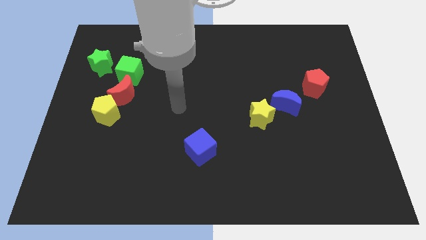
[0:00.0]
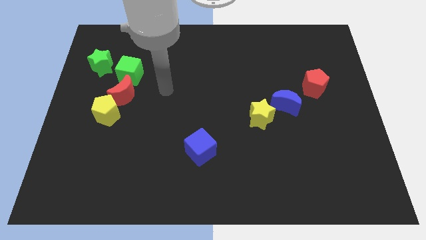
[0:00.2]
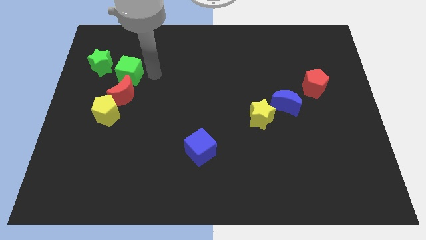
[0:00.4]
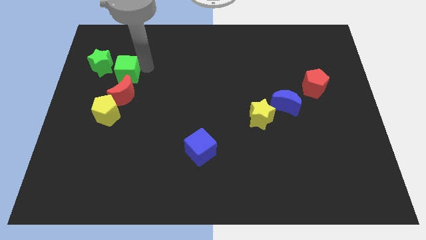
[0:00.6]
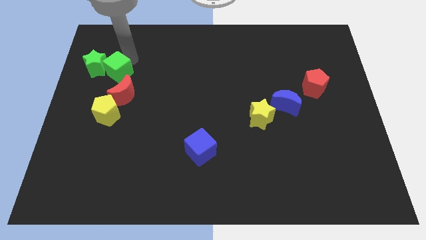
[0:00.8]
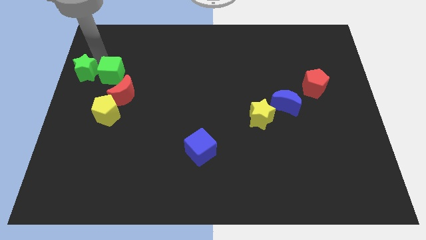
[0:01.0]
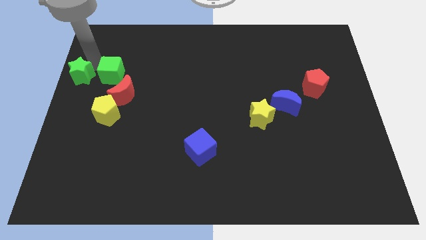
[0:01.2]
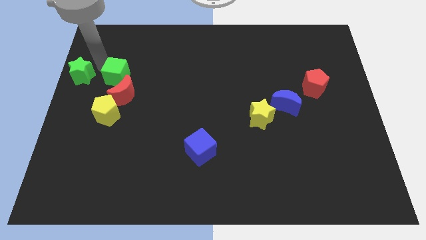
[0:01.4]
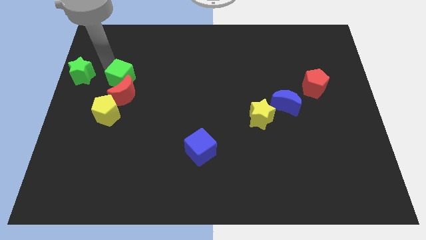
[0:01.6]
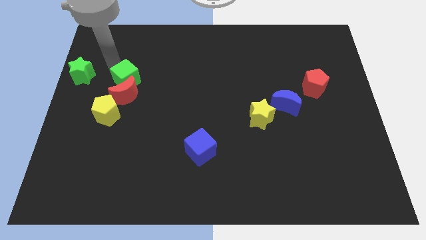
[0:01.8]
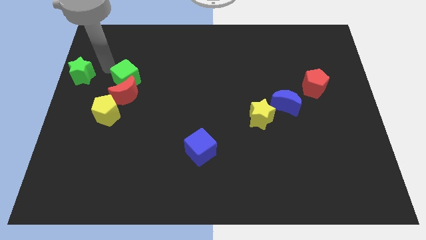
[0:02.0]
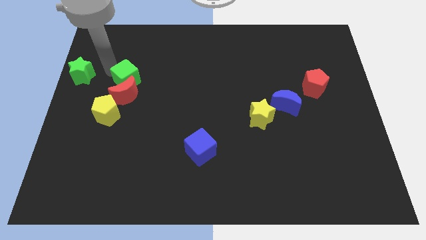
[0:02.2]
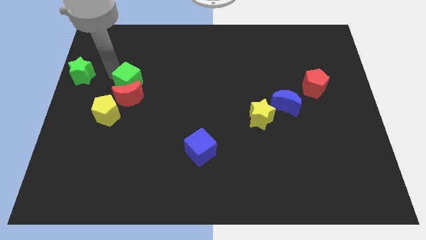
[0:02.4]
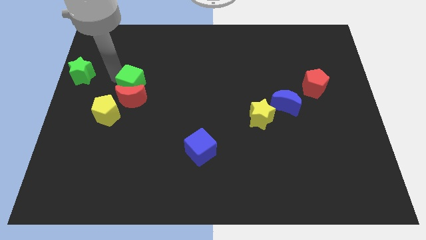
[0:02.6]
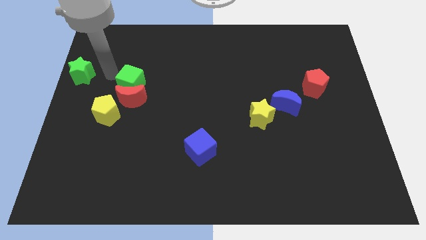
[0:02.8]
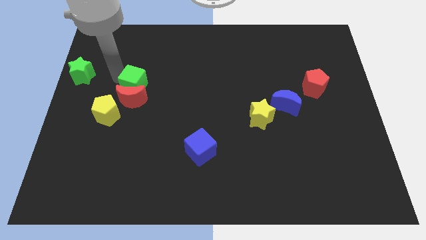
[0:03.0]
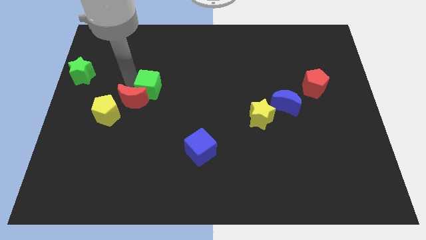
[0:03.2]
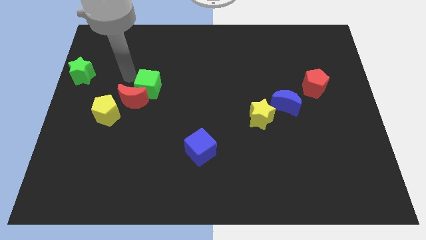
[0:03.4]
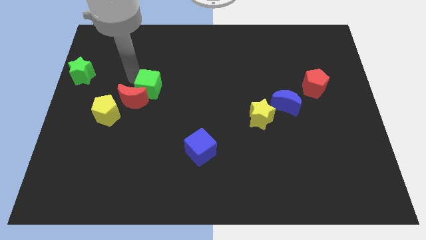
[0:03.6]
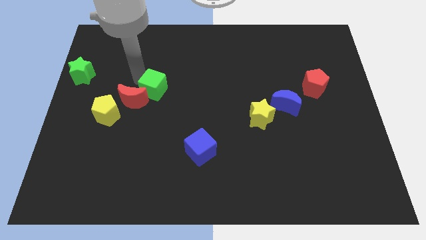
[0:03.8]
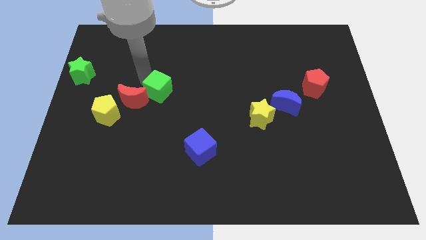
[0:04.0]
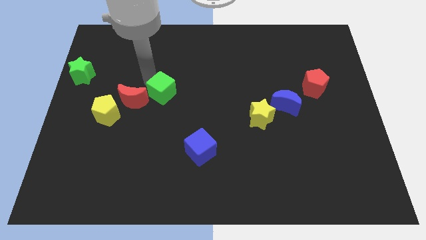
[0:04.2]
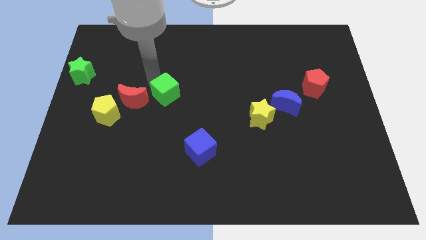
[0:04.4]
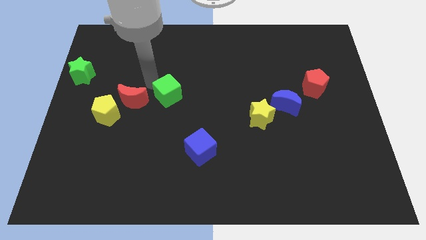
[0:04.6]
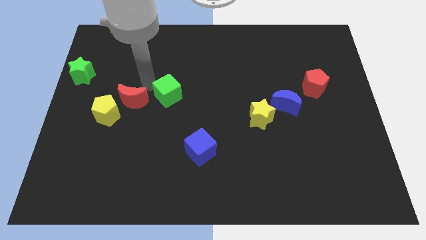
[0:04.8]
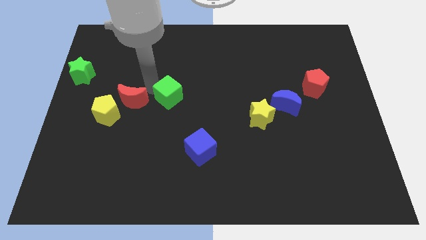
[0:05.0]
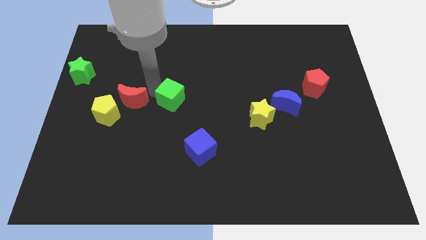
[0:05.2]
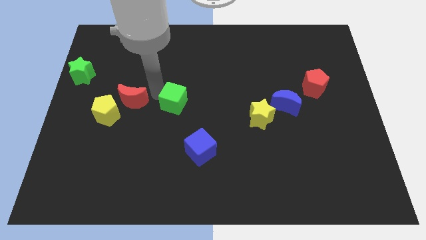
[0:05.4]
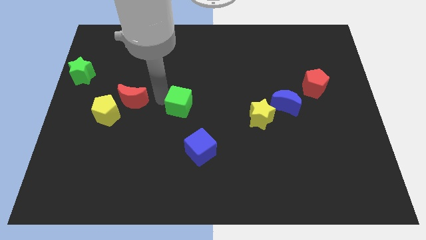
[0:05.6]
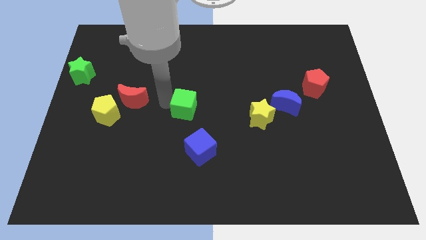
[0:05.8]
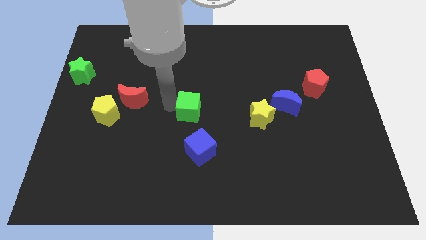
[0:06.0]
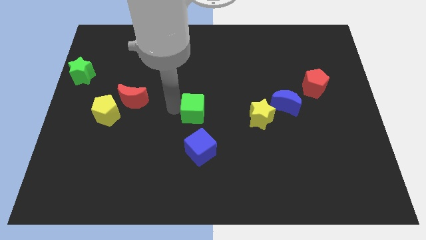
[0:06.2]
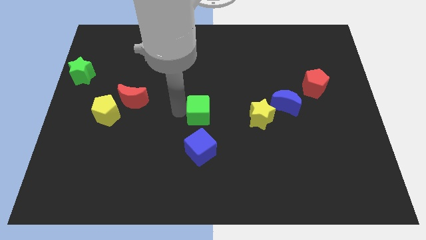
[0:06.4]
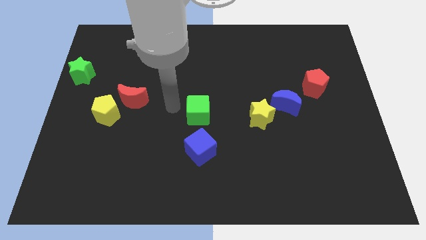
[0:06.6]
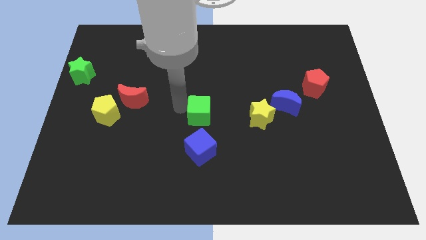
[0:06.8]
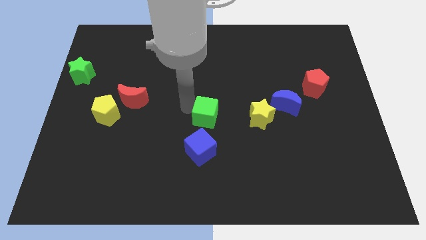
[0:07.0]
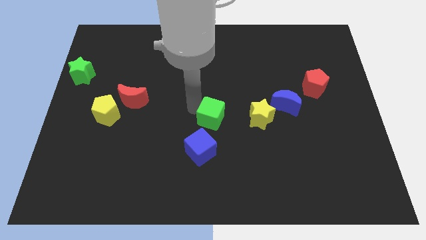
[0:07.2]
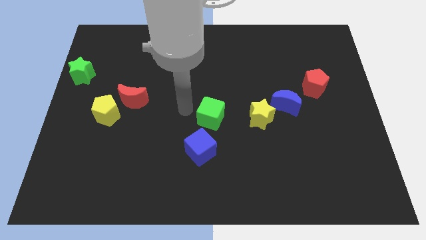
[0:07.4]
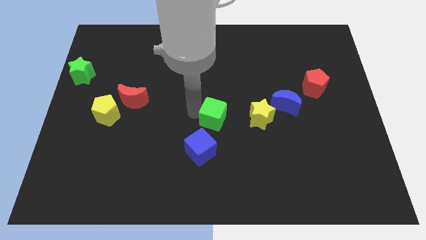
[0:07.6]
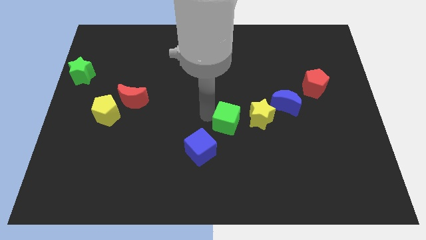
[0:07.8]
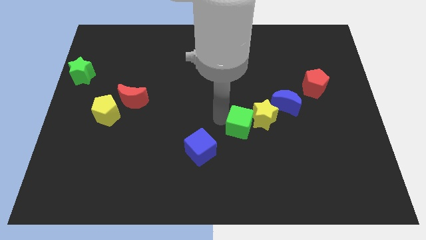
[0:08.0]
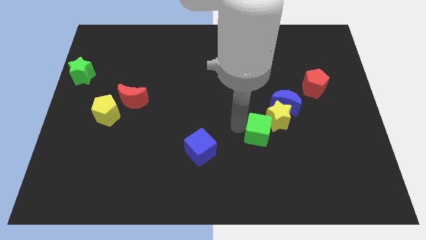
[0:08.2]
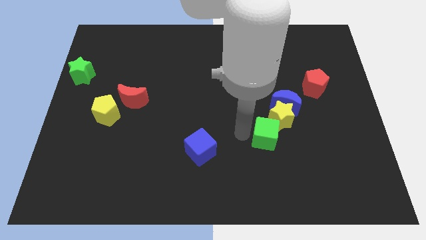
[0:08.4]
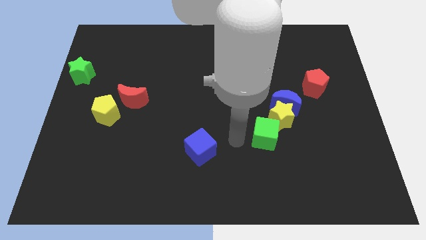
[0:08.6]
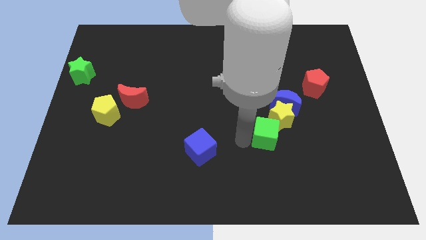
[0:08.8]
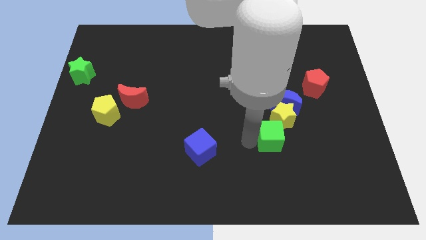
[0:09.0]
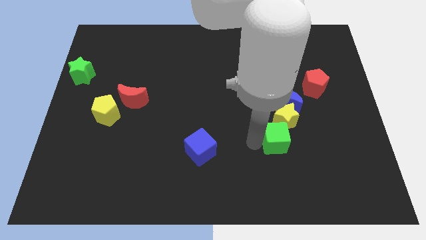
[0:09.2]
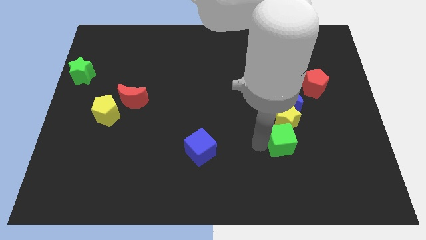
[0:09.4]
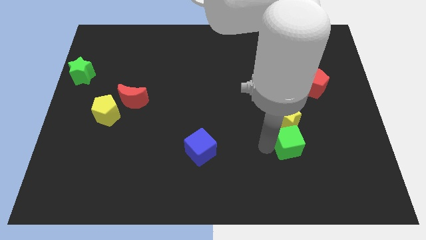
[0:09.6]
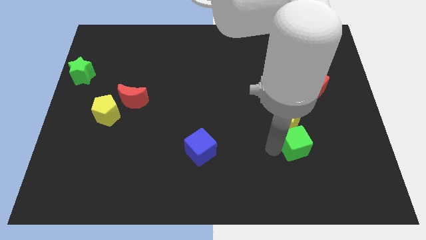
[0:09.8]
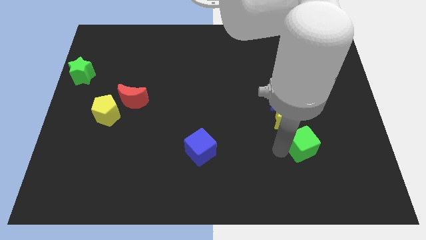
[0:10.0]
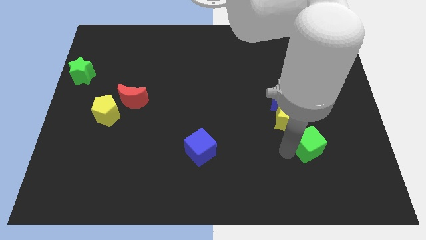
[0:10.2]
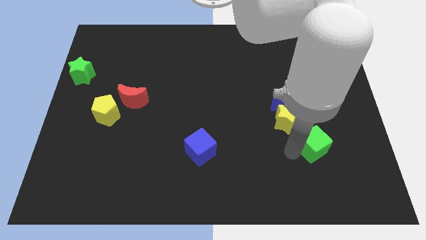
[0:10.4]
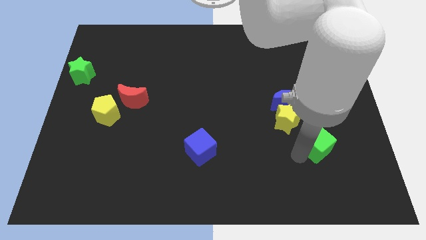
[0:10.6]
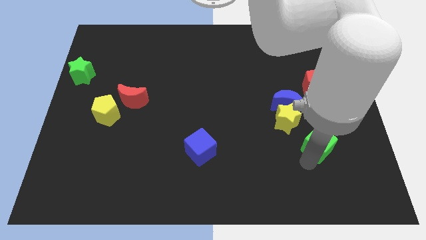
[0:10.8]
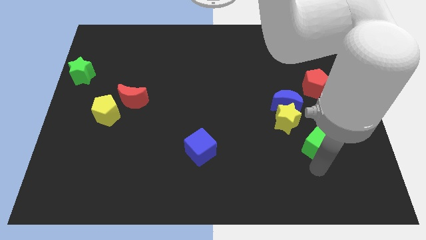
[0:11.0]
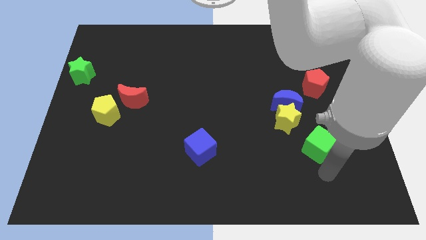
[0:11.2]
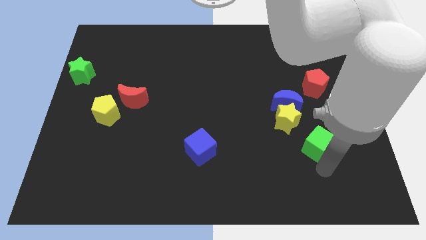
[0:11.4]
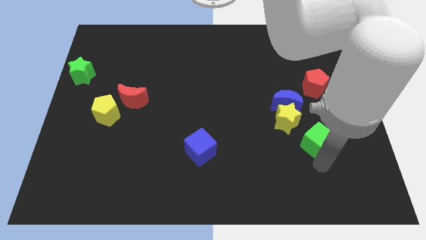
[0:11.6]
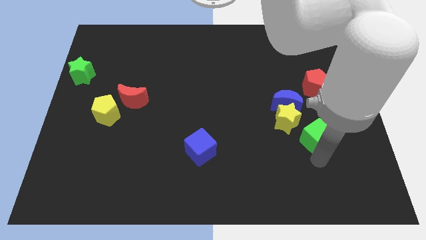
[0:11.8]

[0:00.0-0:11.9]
push the green cube to the bottom side of the red pentagon

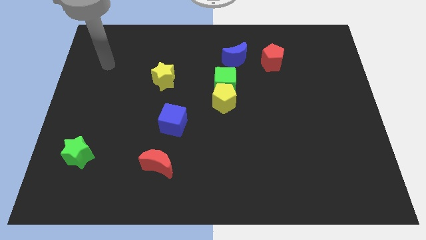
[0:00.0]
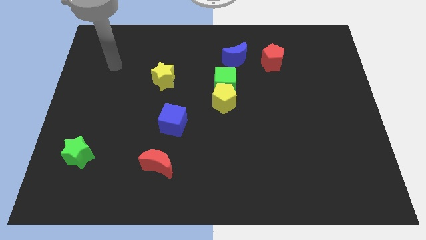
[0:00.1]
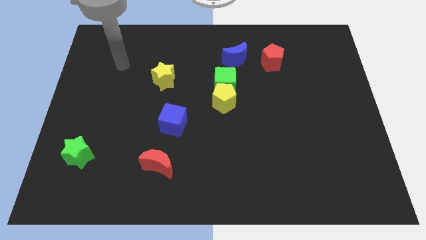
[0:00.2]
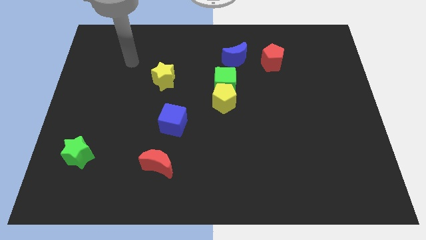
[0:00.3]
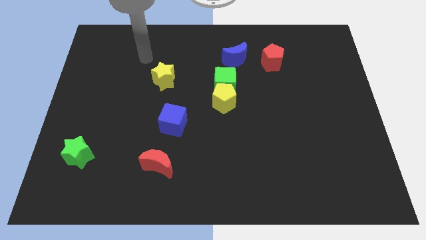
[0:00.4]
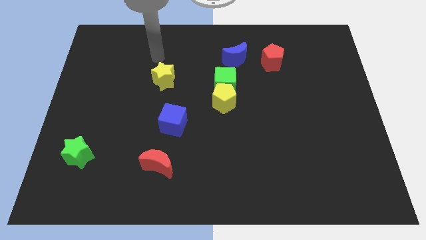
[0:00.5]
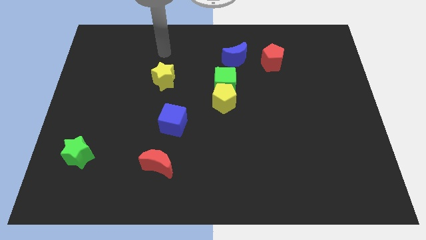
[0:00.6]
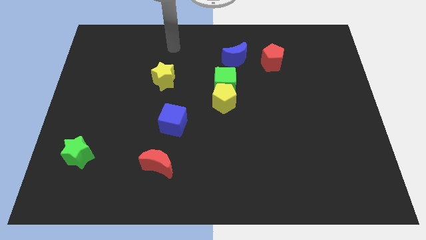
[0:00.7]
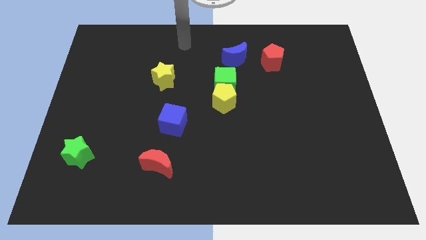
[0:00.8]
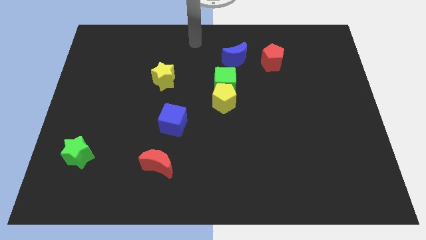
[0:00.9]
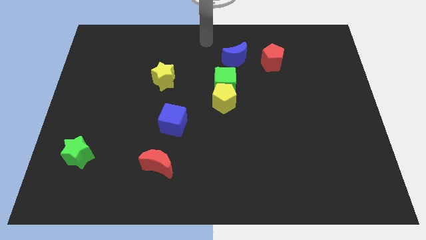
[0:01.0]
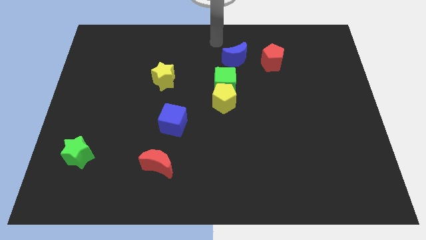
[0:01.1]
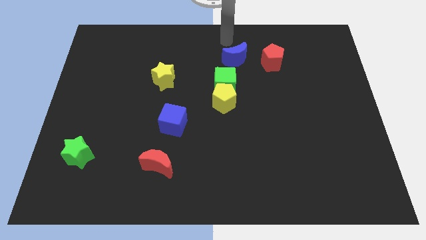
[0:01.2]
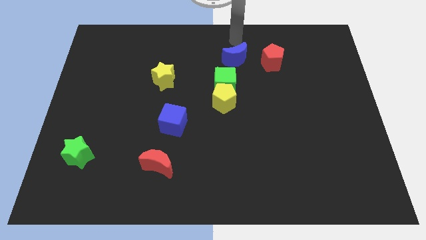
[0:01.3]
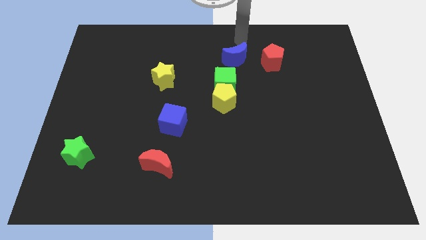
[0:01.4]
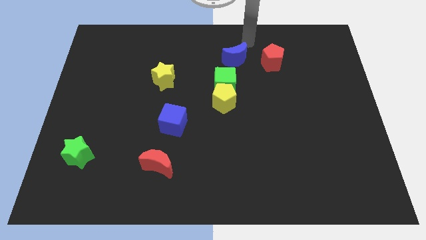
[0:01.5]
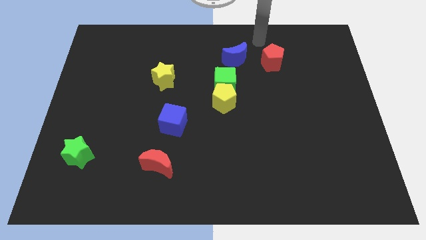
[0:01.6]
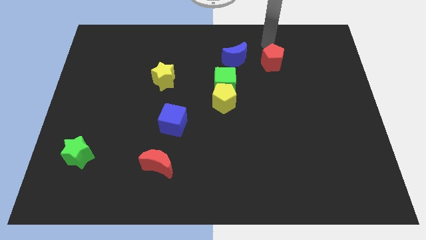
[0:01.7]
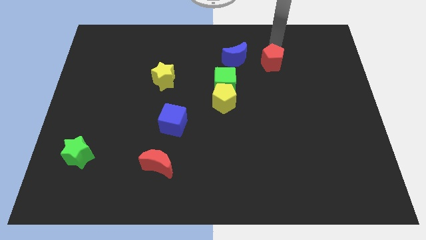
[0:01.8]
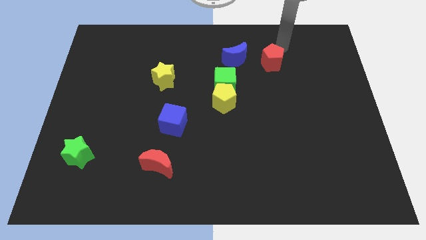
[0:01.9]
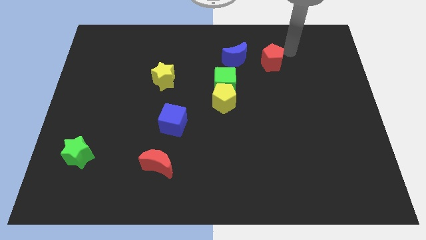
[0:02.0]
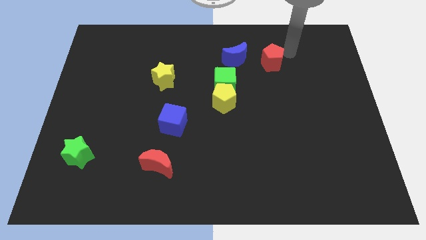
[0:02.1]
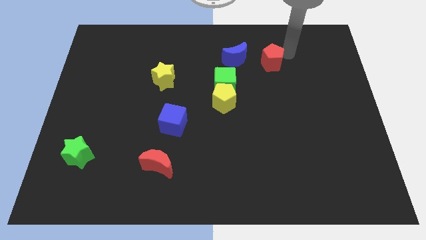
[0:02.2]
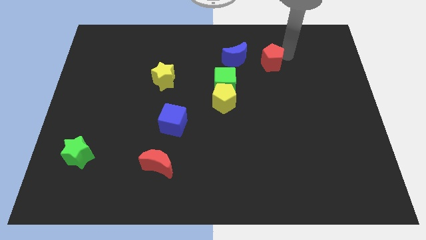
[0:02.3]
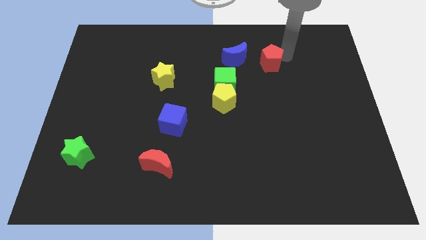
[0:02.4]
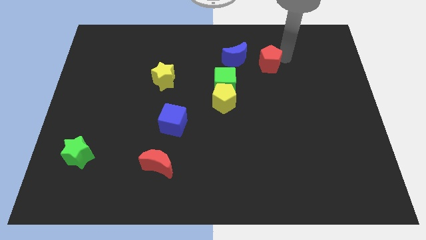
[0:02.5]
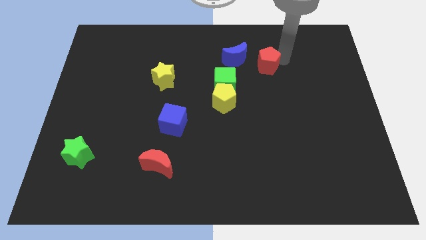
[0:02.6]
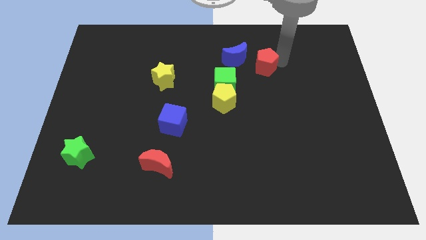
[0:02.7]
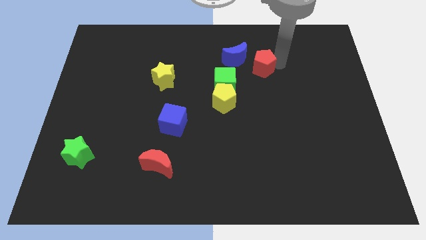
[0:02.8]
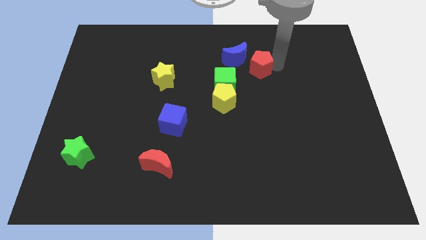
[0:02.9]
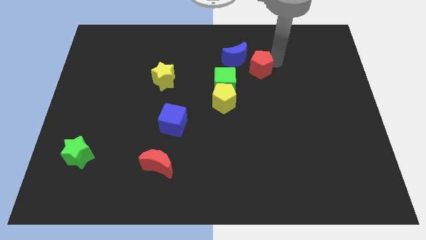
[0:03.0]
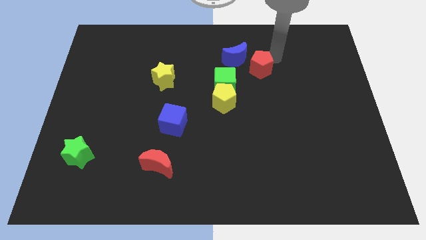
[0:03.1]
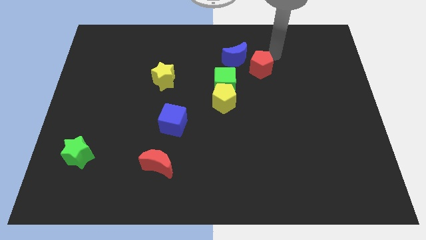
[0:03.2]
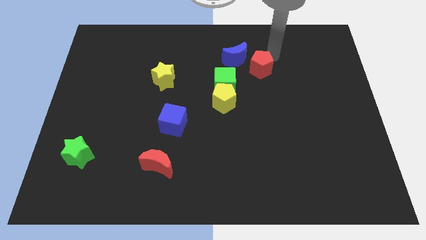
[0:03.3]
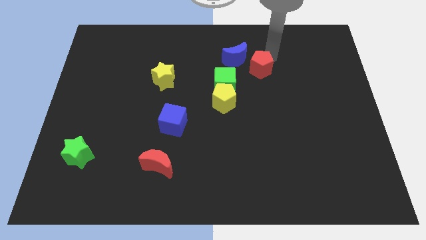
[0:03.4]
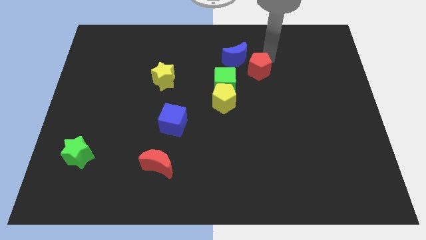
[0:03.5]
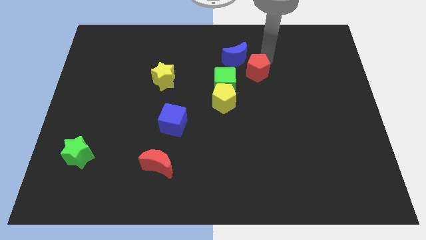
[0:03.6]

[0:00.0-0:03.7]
push the red pentagon to the top right side of the yellow pentagon
